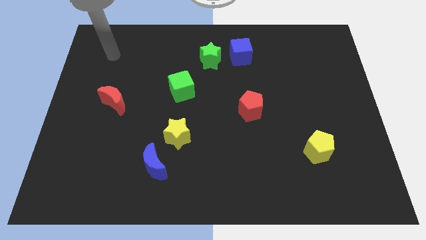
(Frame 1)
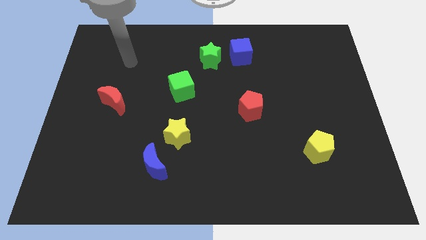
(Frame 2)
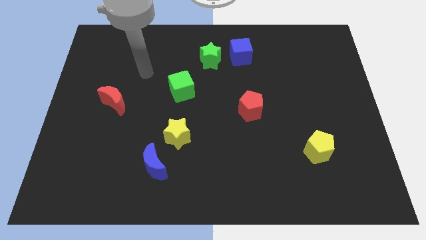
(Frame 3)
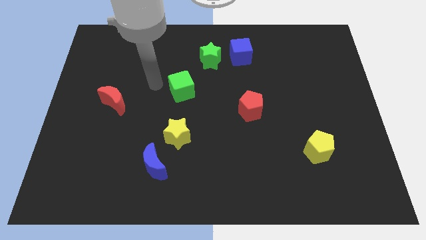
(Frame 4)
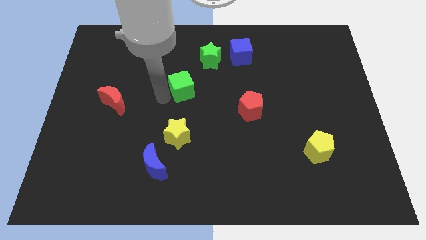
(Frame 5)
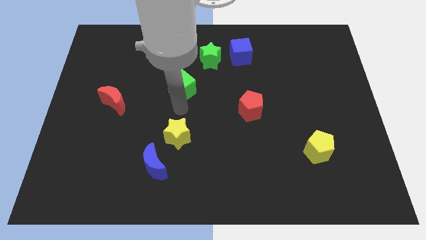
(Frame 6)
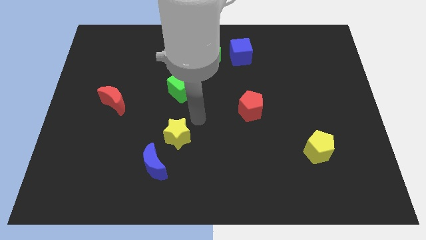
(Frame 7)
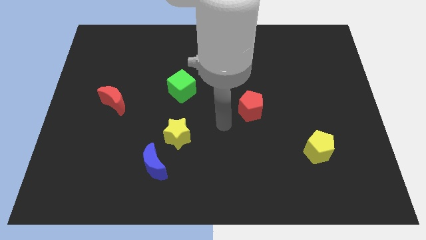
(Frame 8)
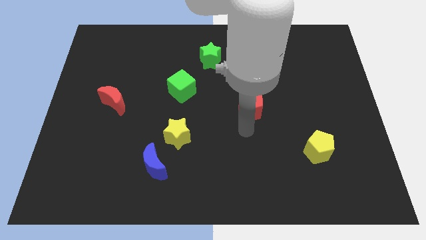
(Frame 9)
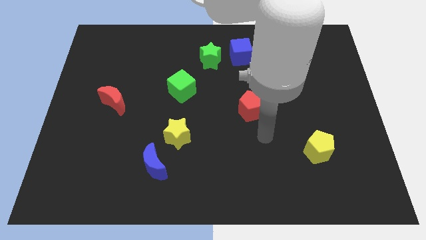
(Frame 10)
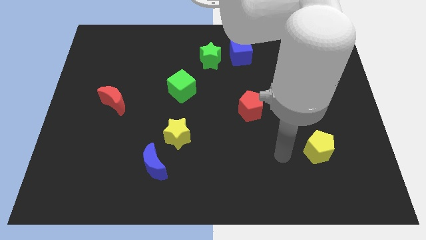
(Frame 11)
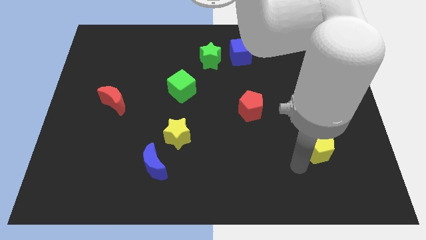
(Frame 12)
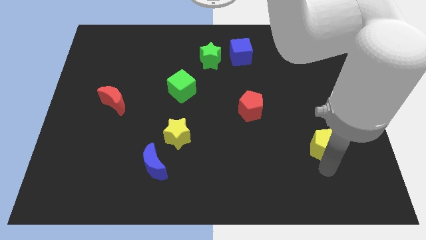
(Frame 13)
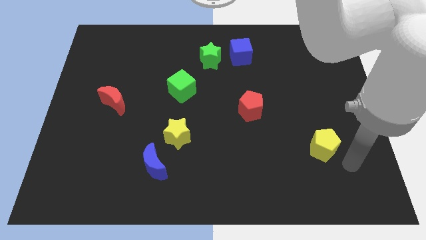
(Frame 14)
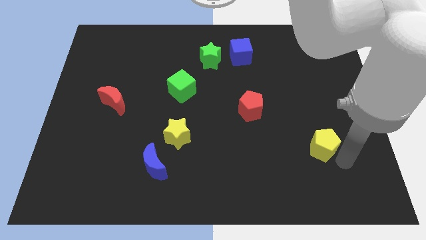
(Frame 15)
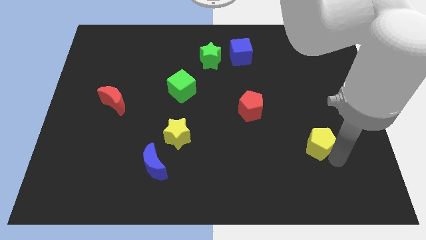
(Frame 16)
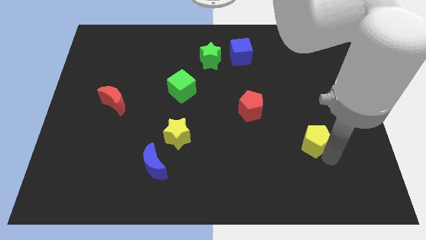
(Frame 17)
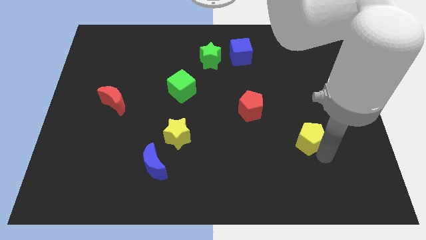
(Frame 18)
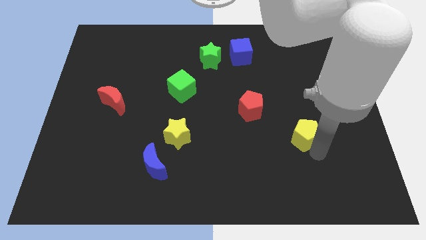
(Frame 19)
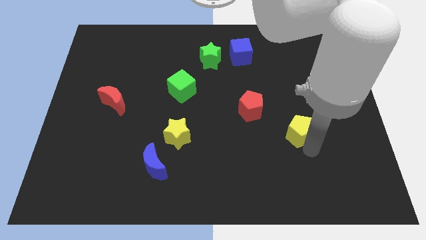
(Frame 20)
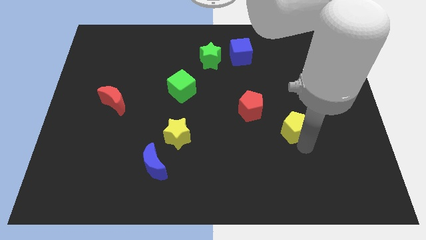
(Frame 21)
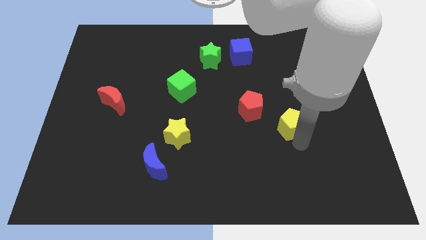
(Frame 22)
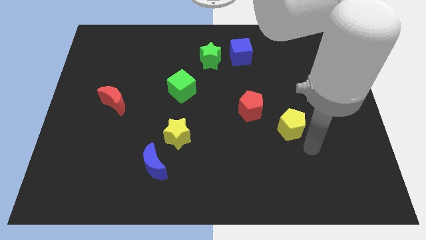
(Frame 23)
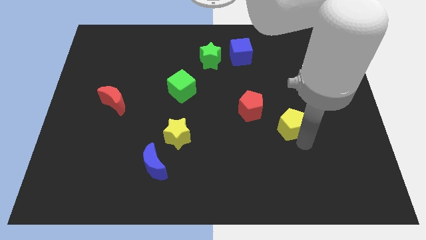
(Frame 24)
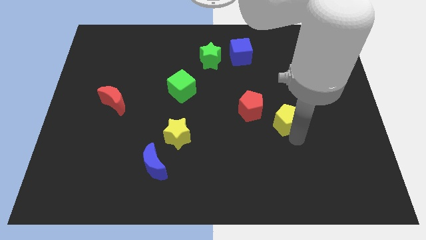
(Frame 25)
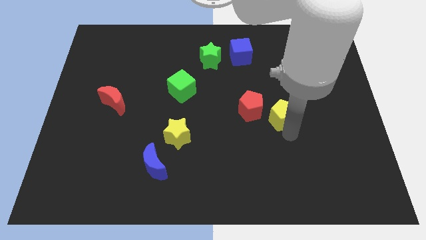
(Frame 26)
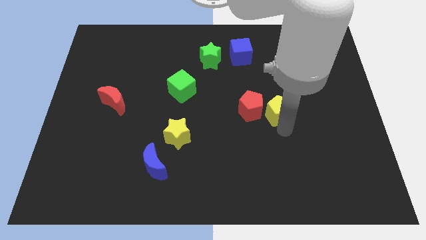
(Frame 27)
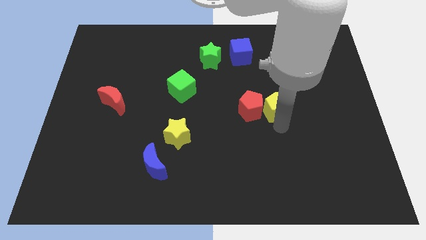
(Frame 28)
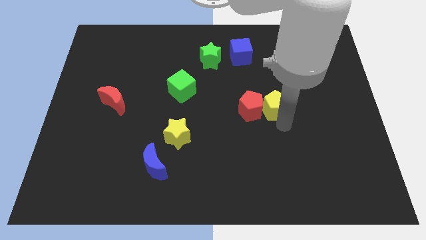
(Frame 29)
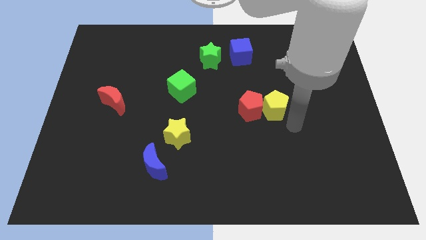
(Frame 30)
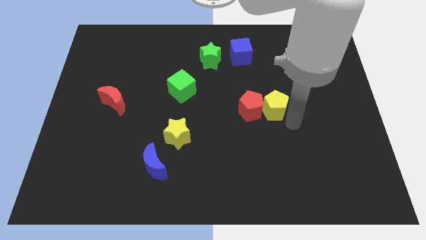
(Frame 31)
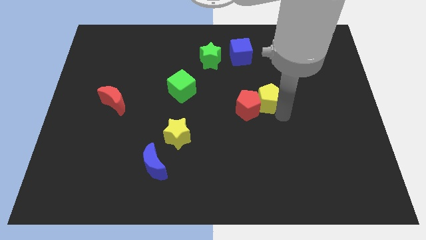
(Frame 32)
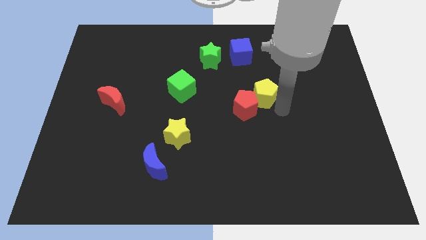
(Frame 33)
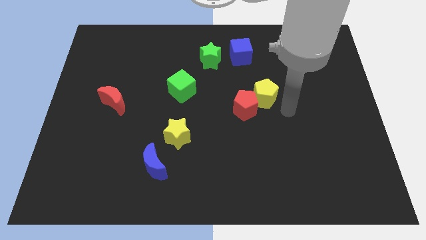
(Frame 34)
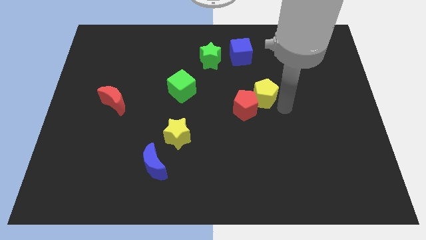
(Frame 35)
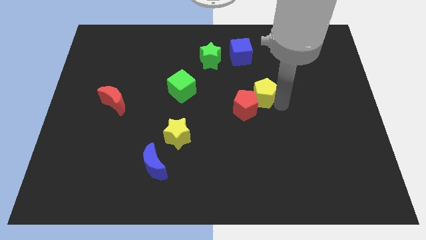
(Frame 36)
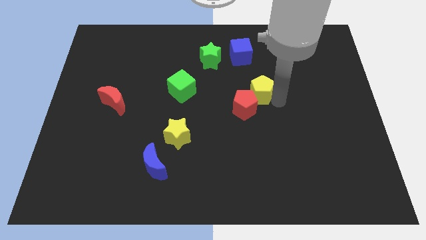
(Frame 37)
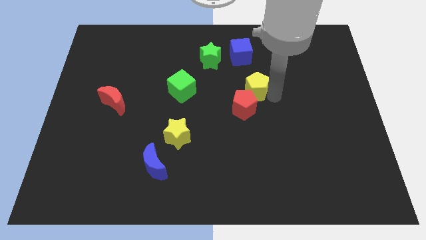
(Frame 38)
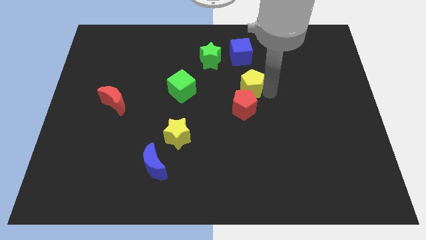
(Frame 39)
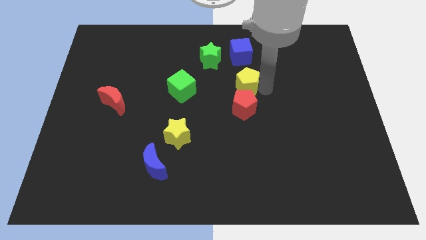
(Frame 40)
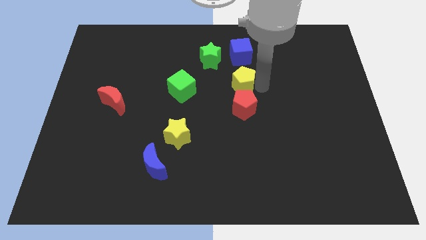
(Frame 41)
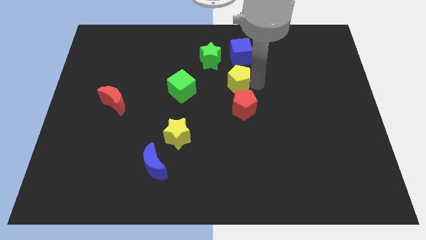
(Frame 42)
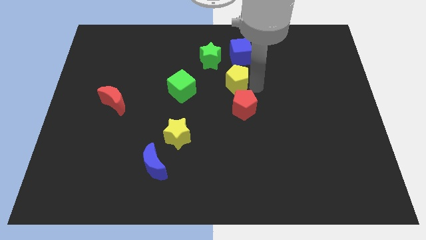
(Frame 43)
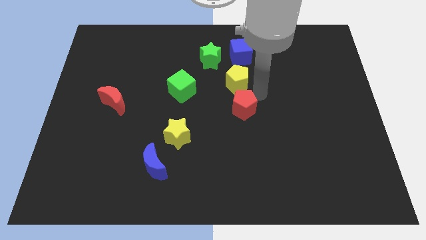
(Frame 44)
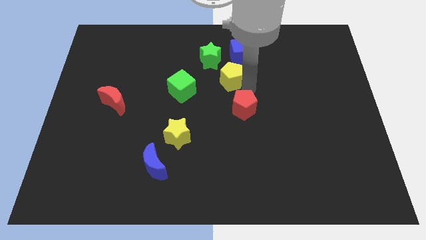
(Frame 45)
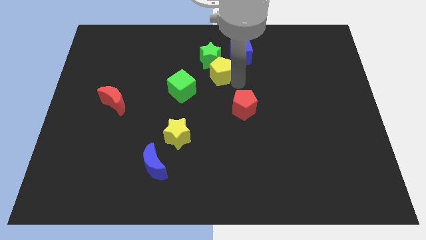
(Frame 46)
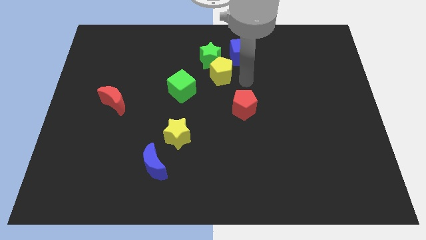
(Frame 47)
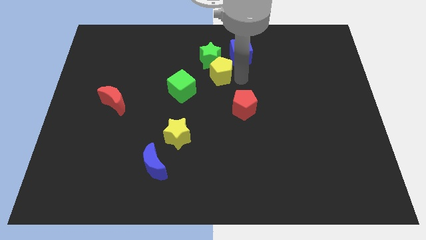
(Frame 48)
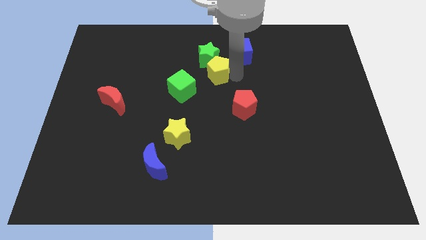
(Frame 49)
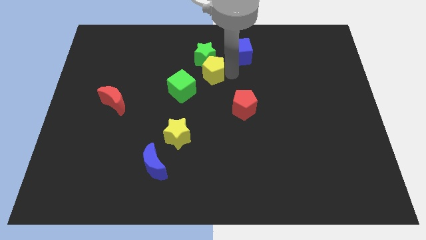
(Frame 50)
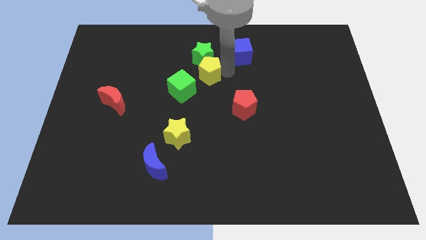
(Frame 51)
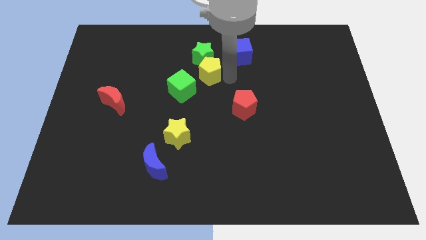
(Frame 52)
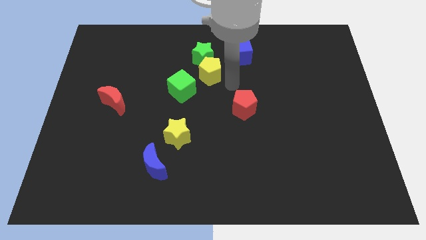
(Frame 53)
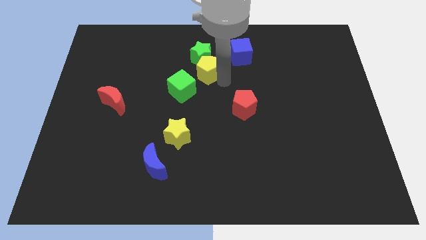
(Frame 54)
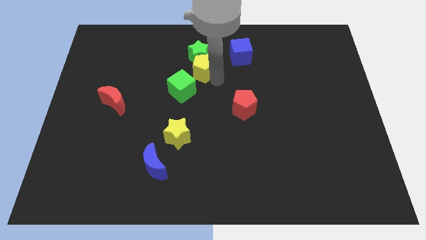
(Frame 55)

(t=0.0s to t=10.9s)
slide the yellow pentagon to the top of the green cube

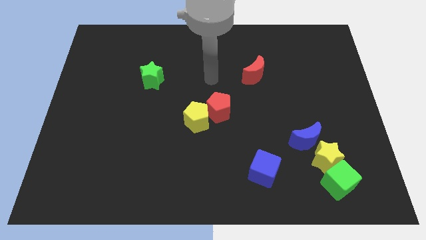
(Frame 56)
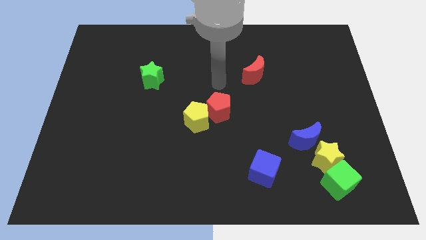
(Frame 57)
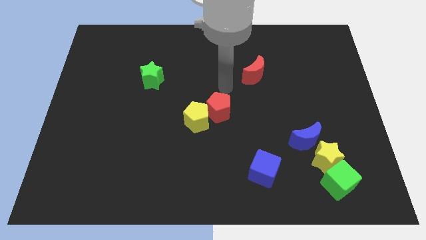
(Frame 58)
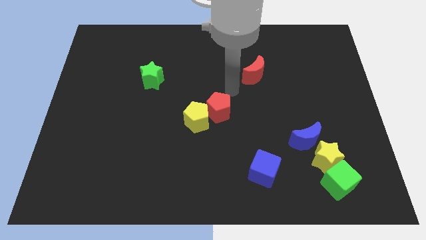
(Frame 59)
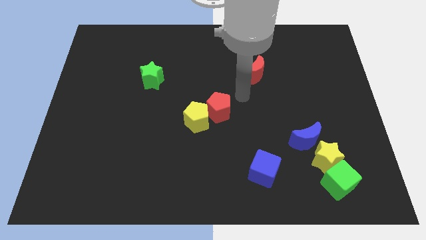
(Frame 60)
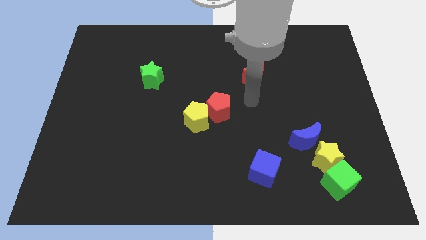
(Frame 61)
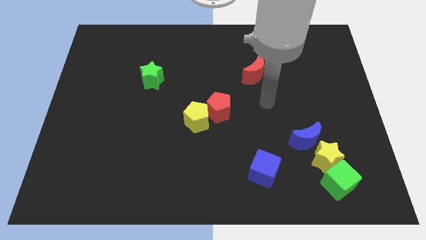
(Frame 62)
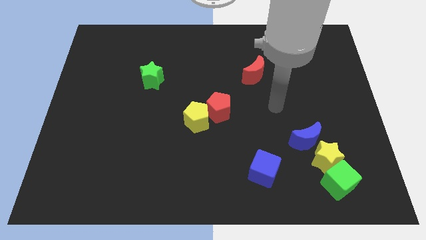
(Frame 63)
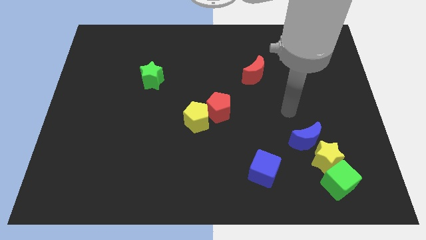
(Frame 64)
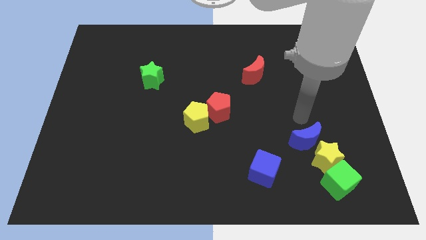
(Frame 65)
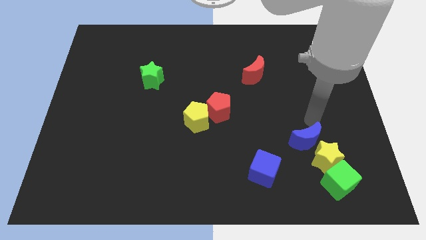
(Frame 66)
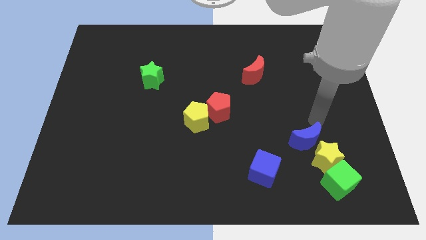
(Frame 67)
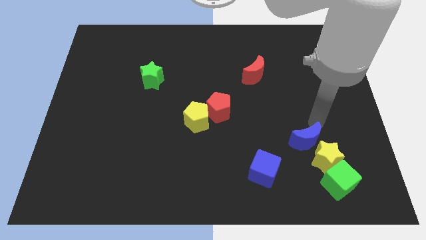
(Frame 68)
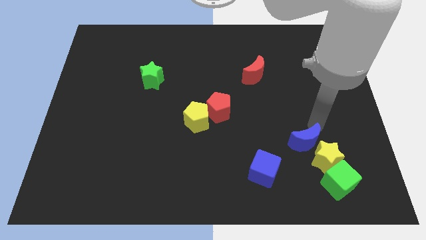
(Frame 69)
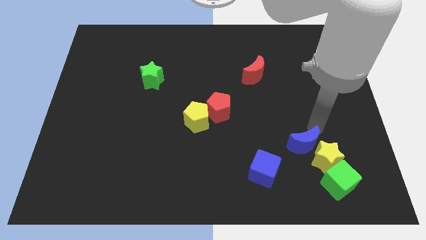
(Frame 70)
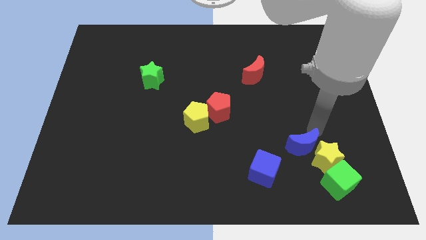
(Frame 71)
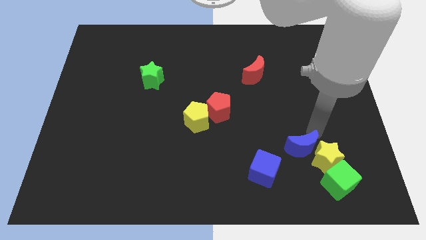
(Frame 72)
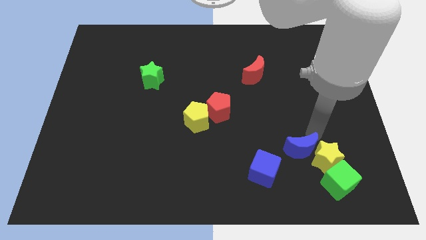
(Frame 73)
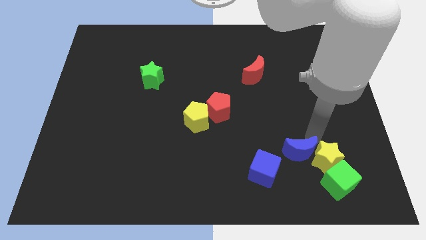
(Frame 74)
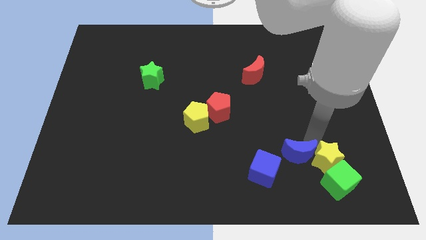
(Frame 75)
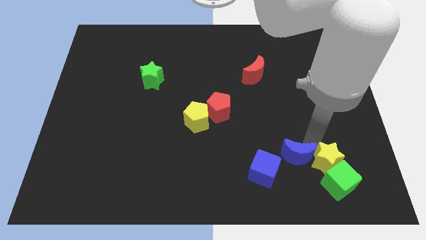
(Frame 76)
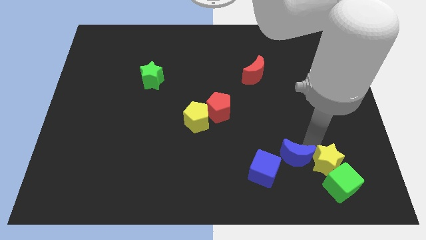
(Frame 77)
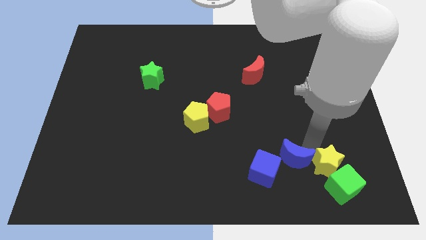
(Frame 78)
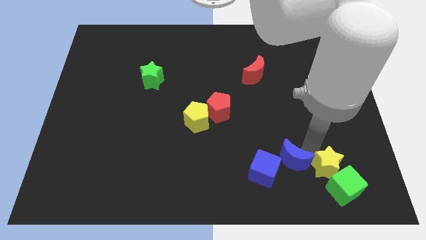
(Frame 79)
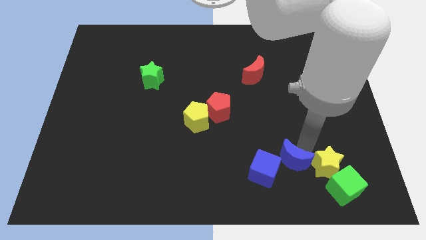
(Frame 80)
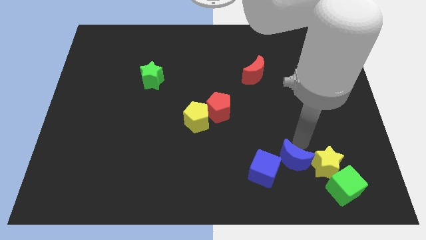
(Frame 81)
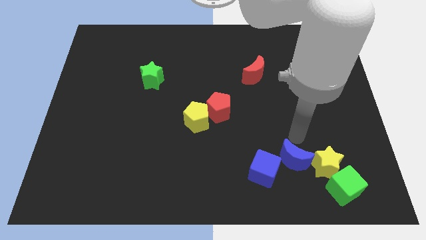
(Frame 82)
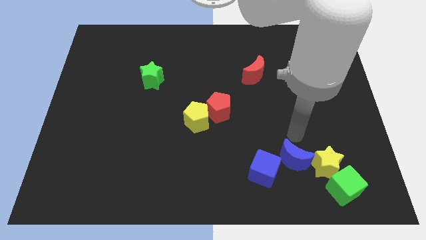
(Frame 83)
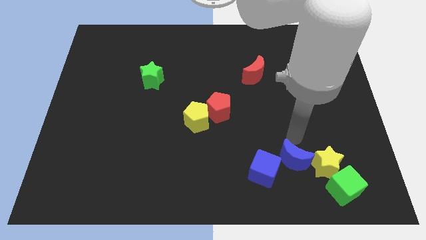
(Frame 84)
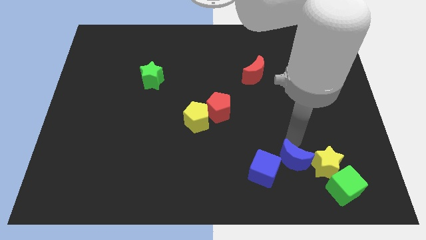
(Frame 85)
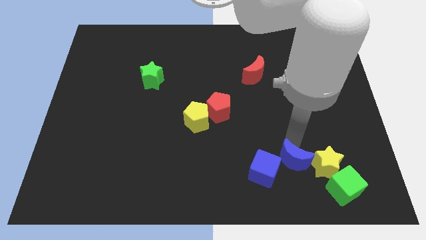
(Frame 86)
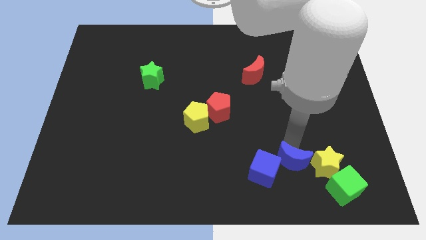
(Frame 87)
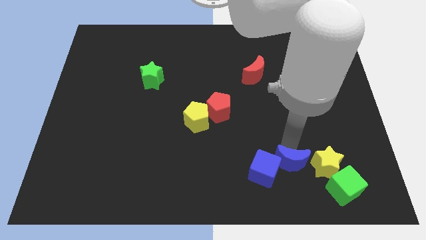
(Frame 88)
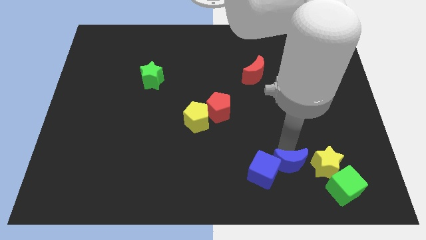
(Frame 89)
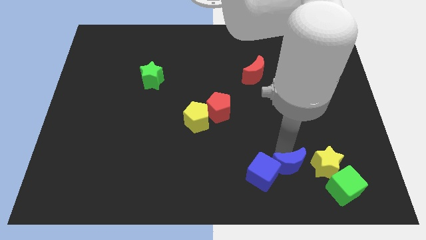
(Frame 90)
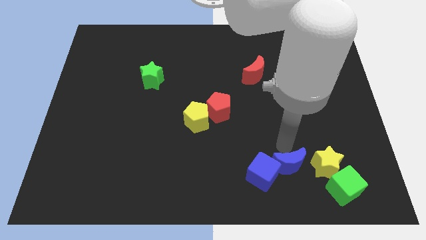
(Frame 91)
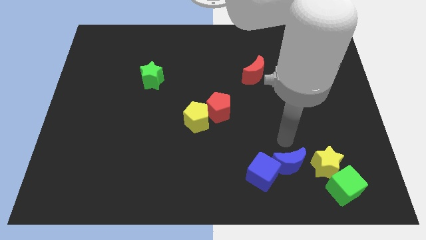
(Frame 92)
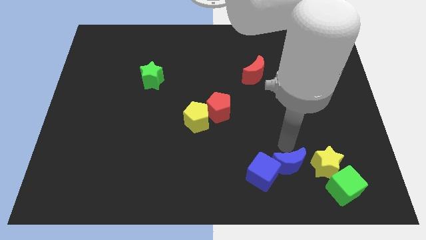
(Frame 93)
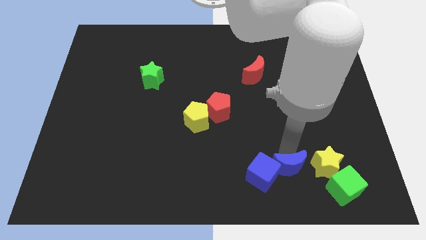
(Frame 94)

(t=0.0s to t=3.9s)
move the blue moon just left of the green cube
